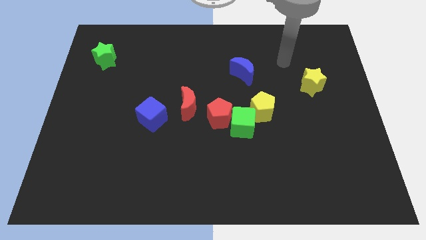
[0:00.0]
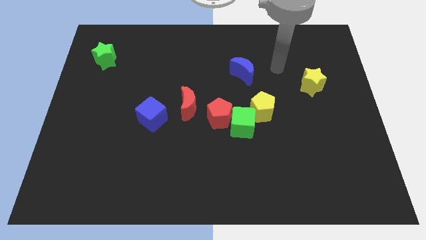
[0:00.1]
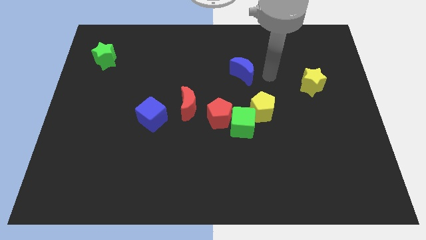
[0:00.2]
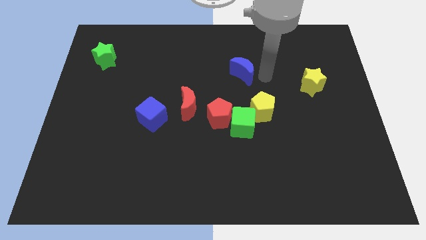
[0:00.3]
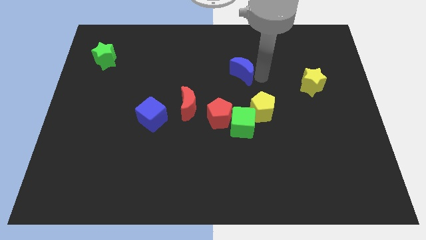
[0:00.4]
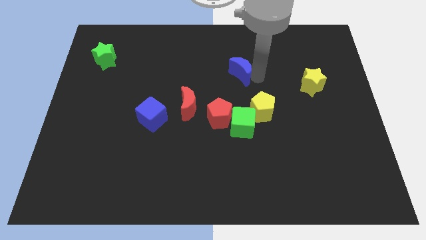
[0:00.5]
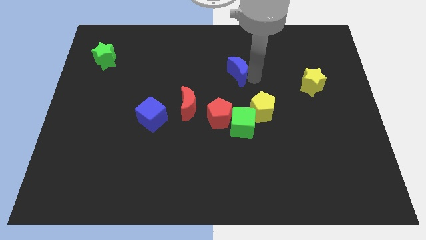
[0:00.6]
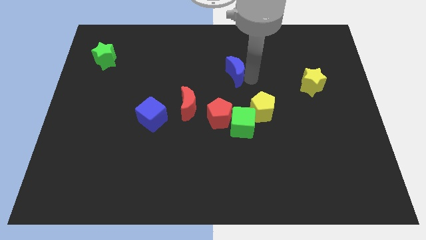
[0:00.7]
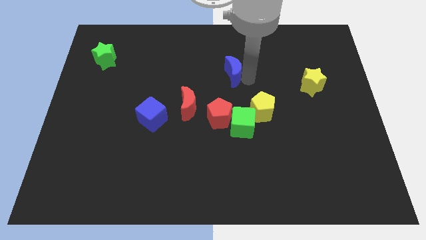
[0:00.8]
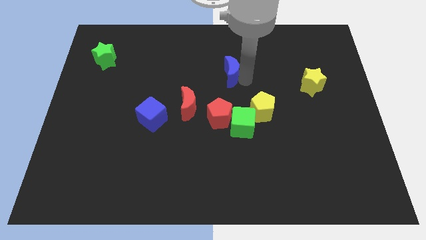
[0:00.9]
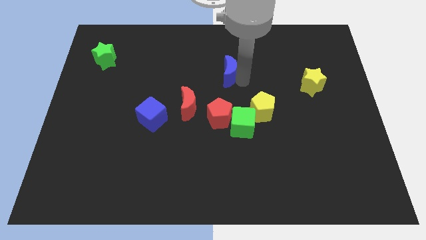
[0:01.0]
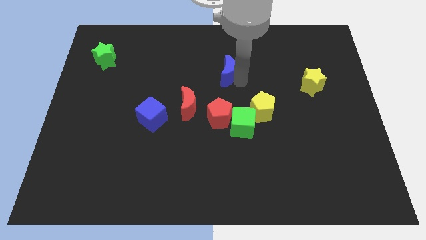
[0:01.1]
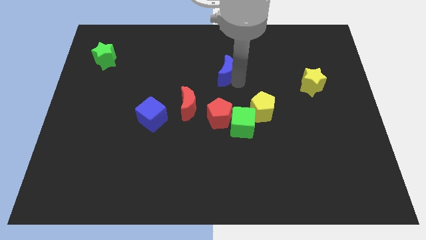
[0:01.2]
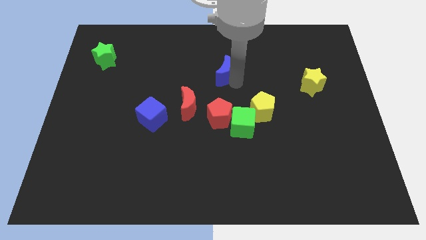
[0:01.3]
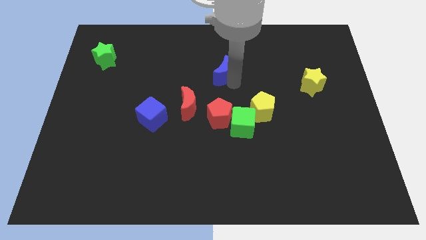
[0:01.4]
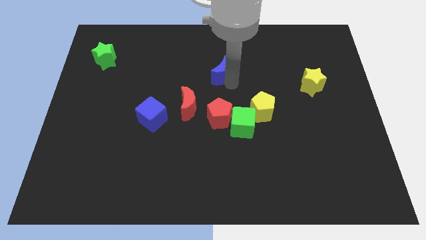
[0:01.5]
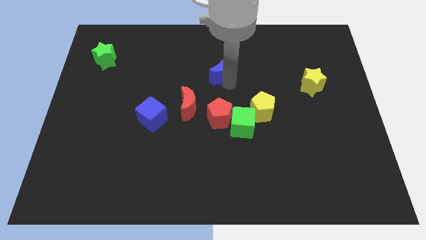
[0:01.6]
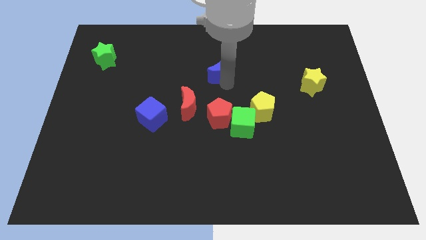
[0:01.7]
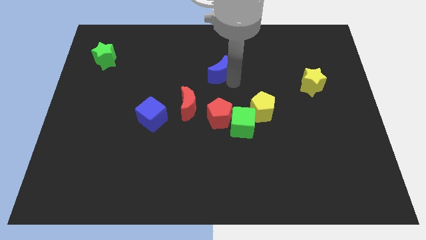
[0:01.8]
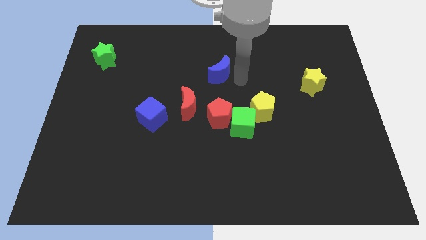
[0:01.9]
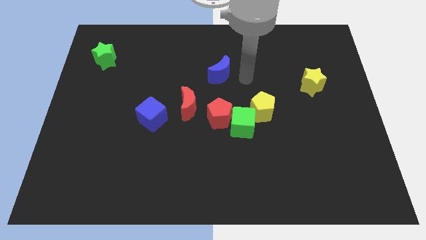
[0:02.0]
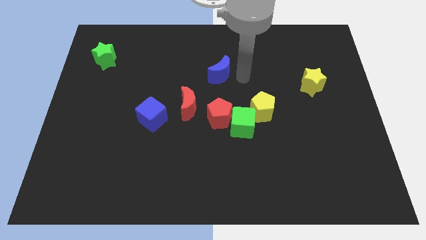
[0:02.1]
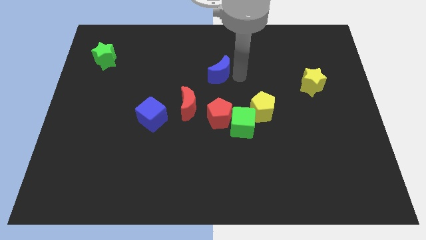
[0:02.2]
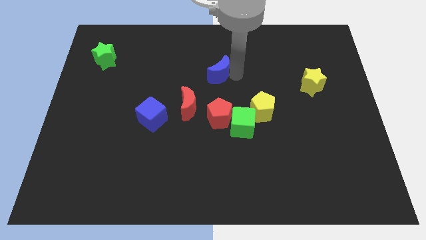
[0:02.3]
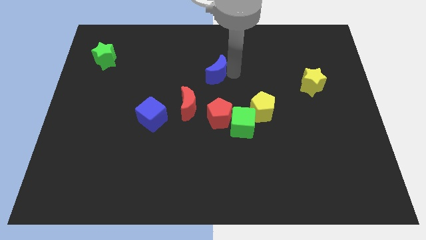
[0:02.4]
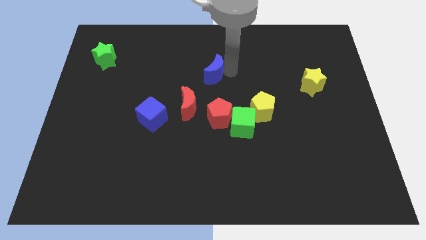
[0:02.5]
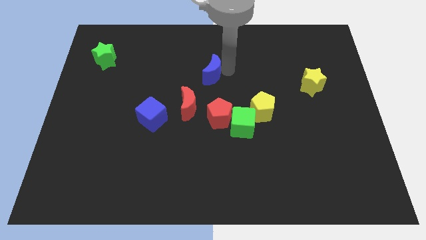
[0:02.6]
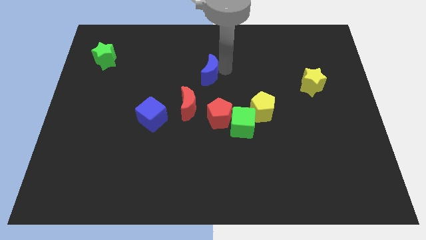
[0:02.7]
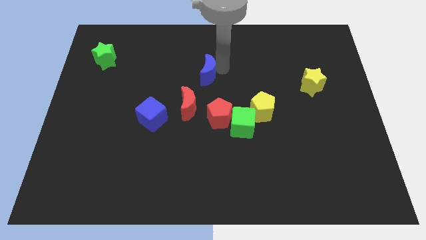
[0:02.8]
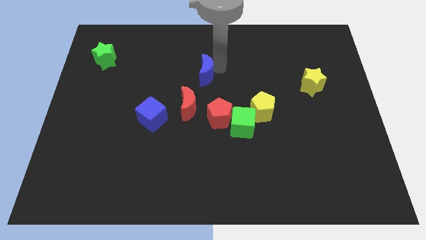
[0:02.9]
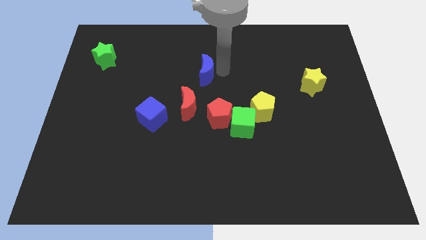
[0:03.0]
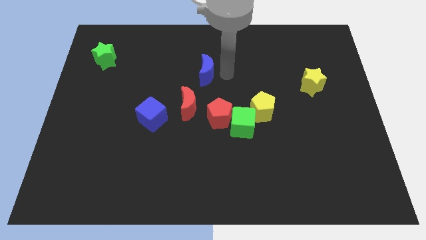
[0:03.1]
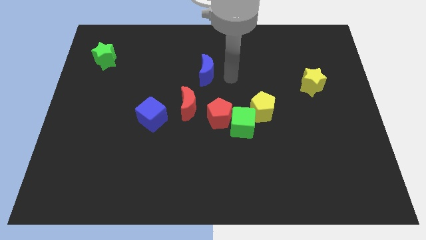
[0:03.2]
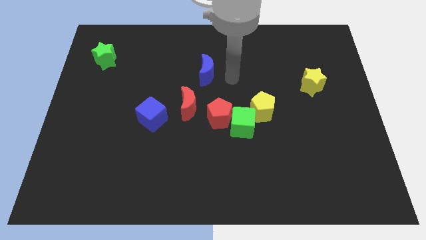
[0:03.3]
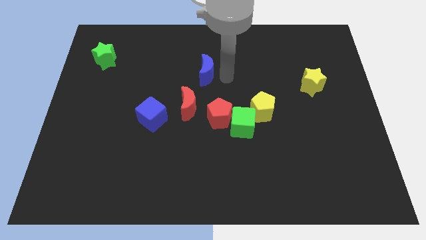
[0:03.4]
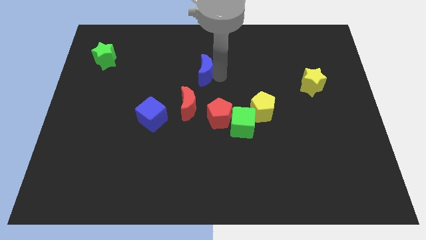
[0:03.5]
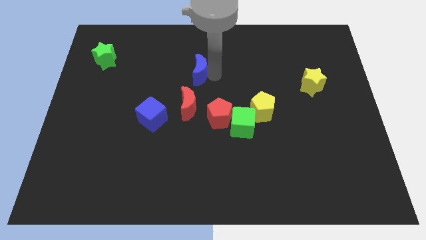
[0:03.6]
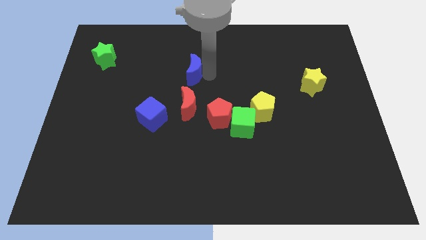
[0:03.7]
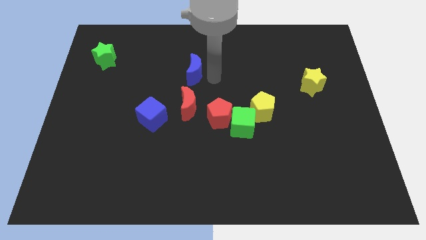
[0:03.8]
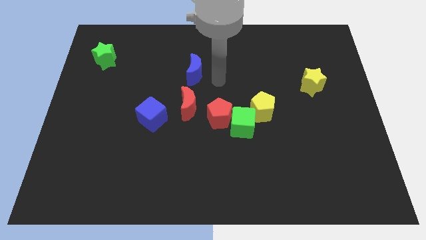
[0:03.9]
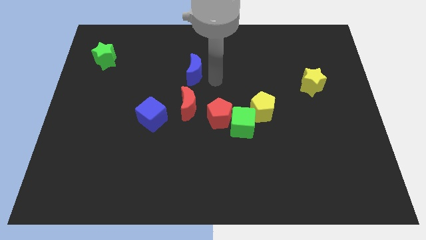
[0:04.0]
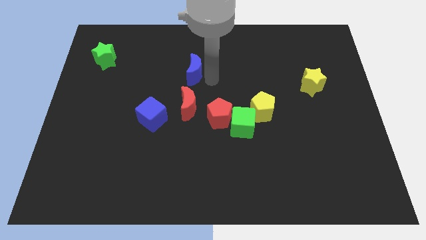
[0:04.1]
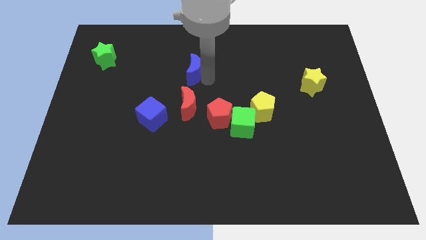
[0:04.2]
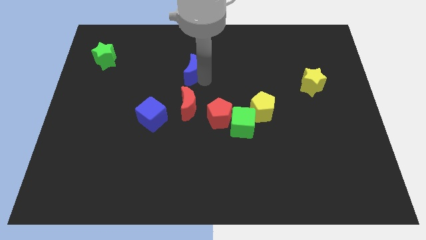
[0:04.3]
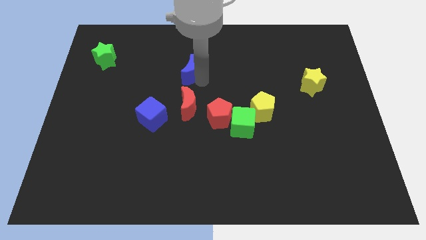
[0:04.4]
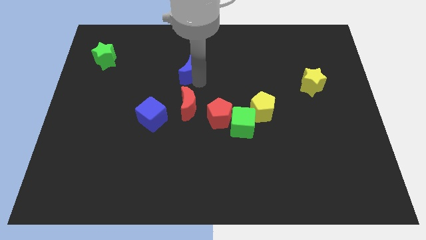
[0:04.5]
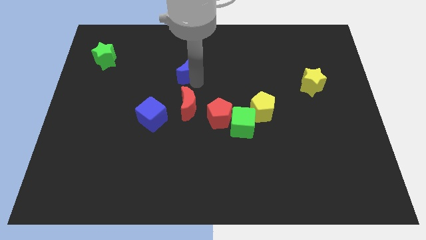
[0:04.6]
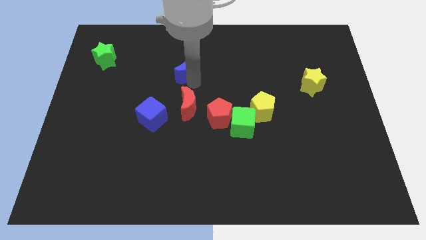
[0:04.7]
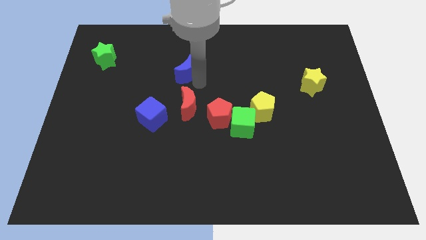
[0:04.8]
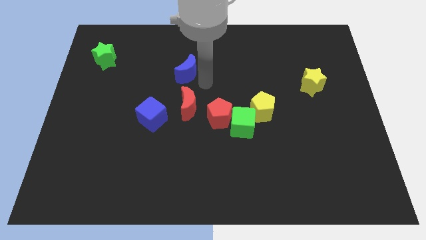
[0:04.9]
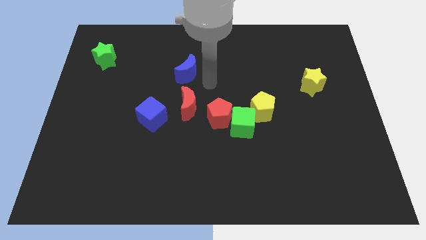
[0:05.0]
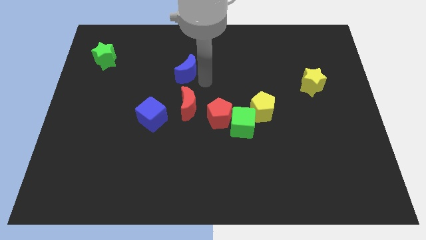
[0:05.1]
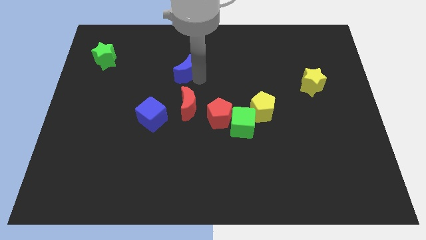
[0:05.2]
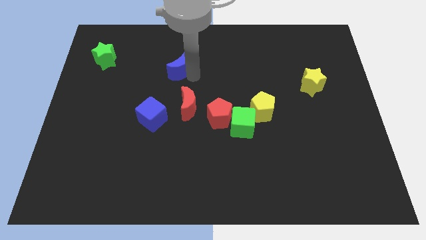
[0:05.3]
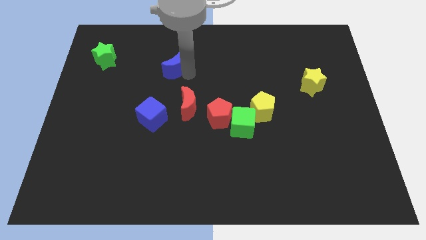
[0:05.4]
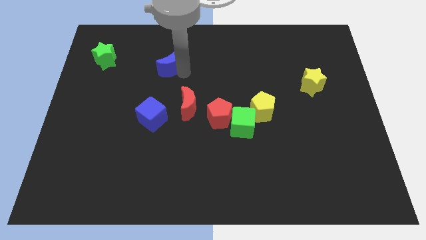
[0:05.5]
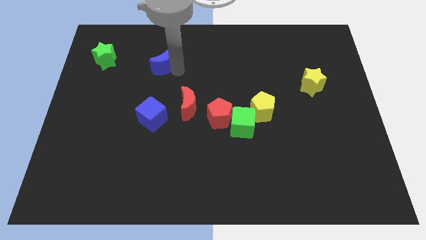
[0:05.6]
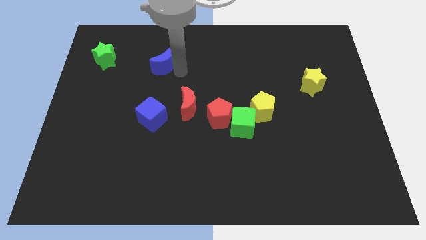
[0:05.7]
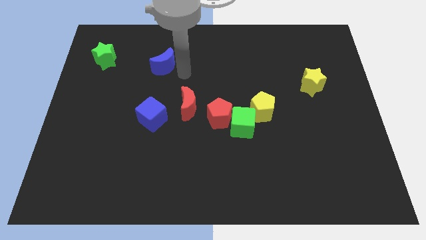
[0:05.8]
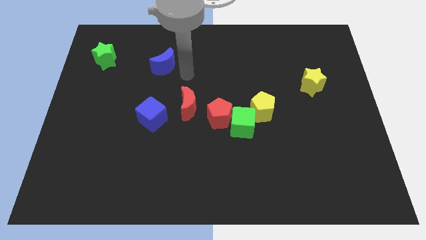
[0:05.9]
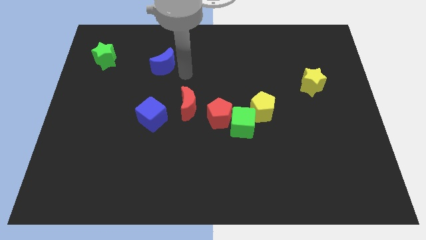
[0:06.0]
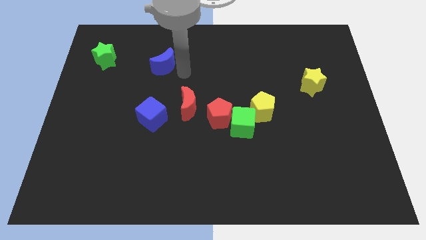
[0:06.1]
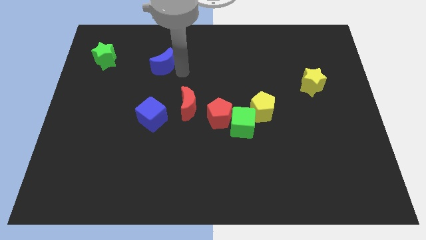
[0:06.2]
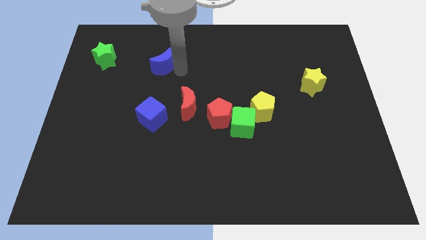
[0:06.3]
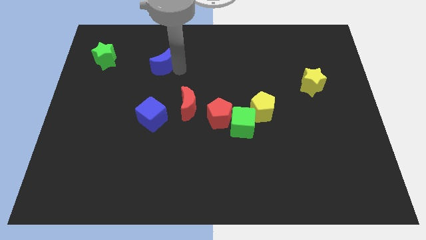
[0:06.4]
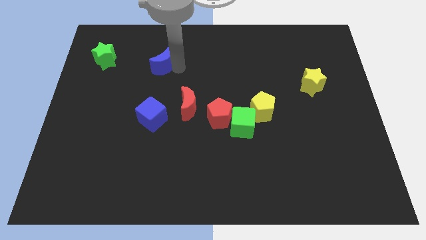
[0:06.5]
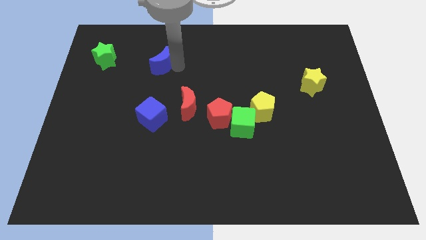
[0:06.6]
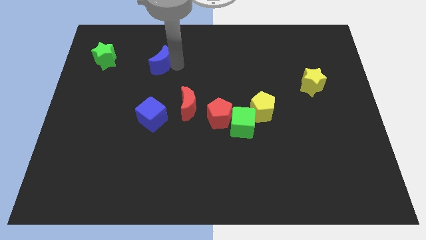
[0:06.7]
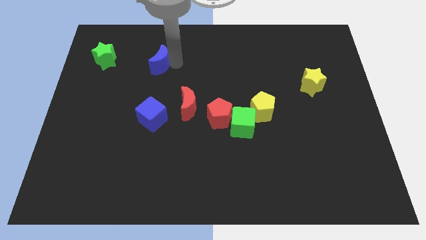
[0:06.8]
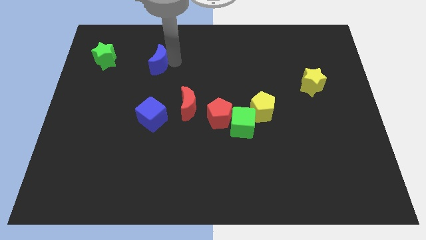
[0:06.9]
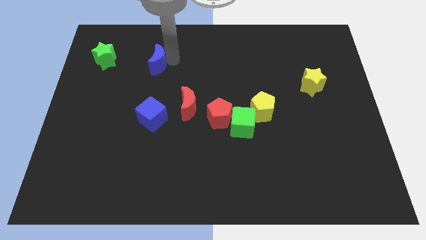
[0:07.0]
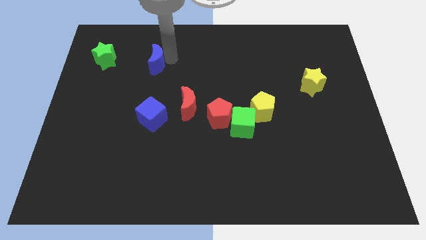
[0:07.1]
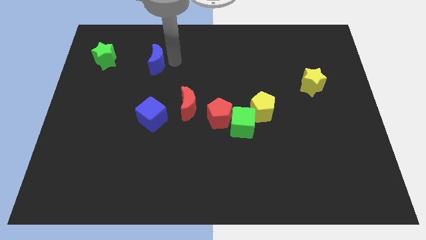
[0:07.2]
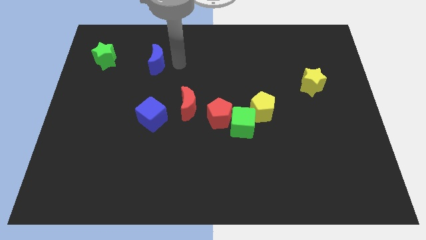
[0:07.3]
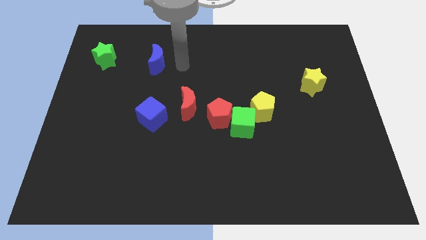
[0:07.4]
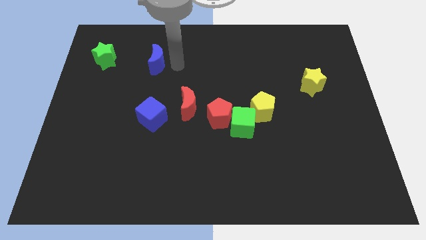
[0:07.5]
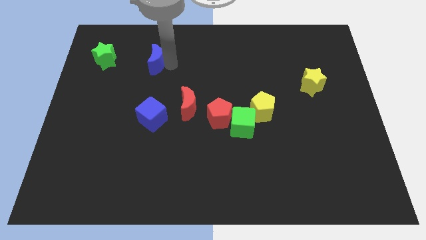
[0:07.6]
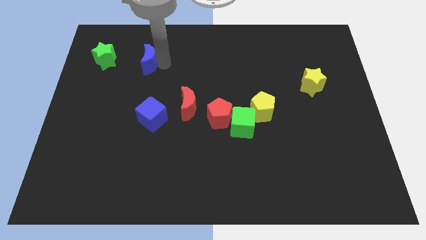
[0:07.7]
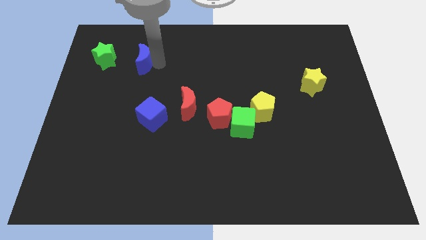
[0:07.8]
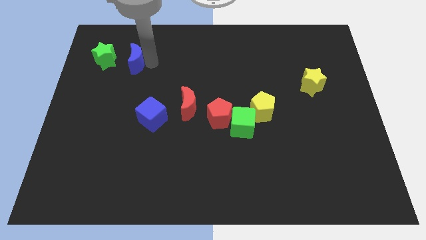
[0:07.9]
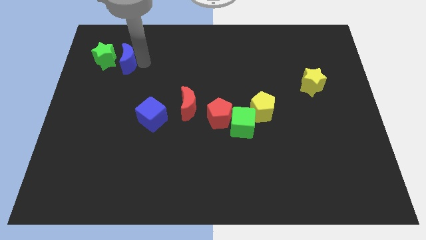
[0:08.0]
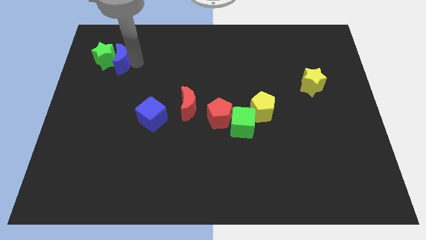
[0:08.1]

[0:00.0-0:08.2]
move the blue moon close to the green star
